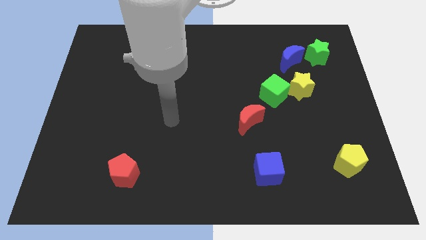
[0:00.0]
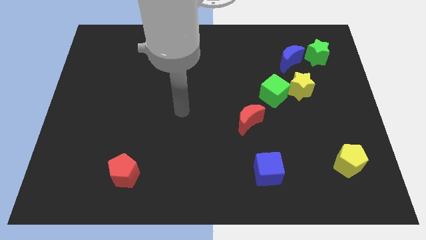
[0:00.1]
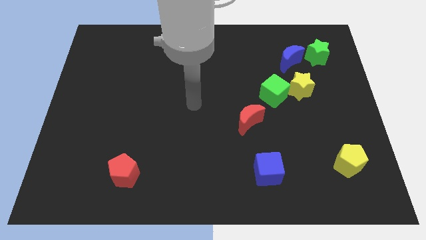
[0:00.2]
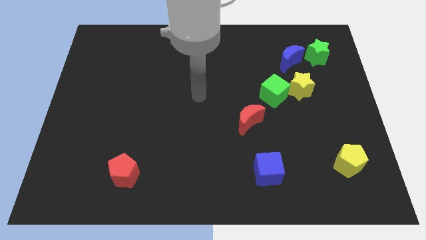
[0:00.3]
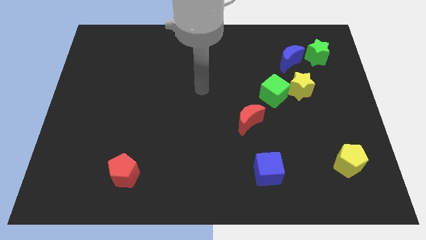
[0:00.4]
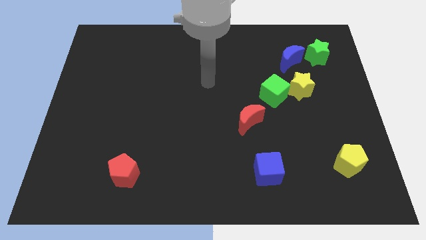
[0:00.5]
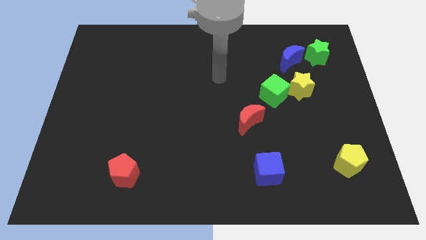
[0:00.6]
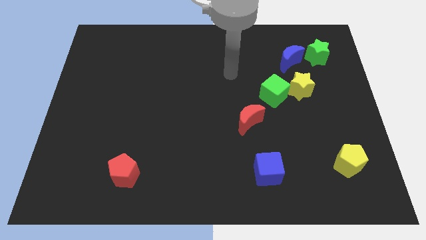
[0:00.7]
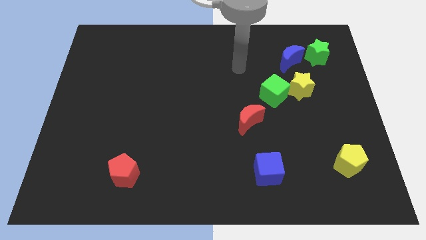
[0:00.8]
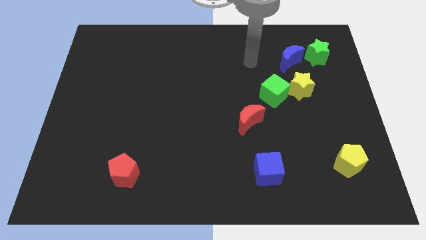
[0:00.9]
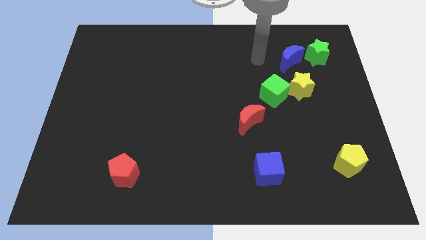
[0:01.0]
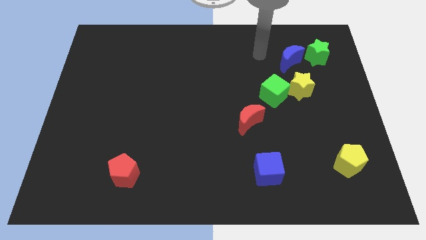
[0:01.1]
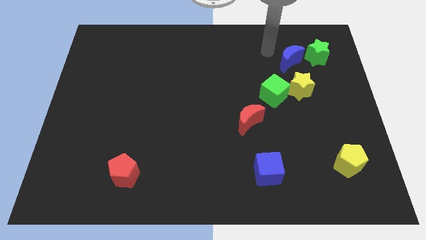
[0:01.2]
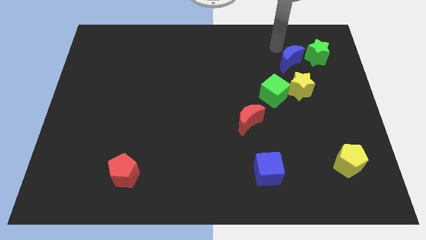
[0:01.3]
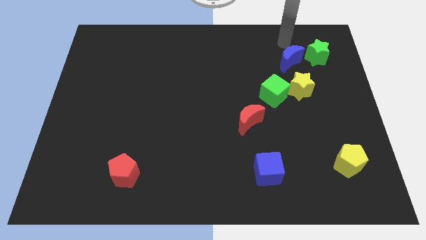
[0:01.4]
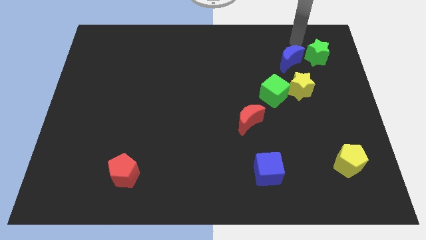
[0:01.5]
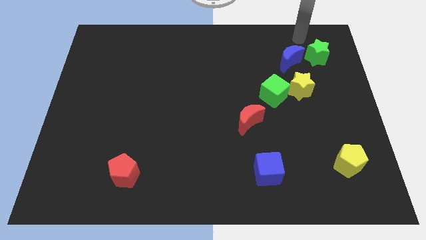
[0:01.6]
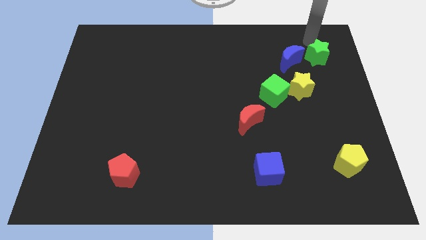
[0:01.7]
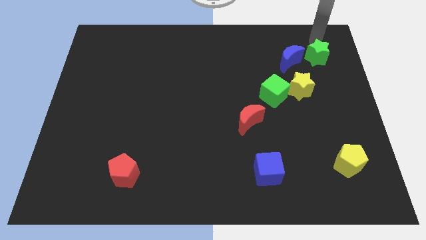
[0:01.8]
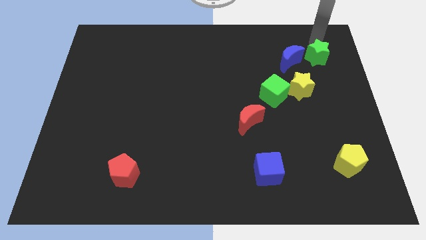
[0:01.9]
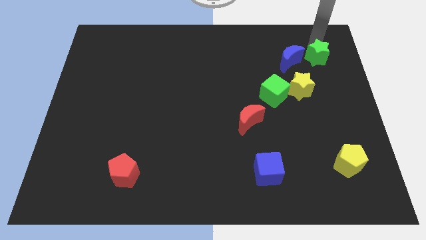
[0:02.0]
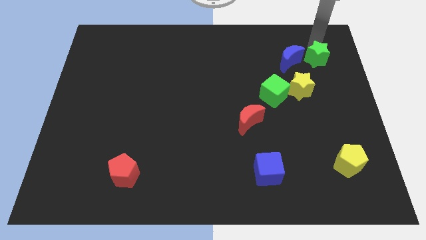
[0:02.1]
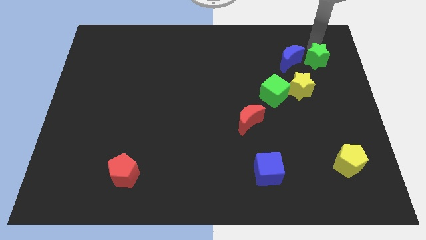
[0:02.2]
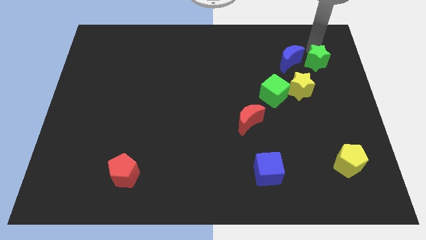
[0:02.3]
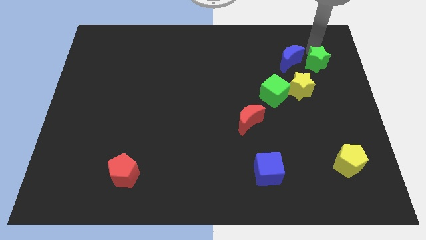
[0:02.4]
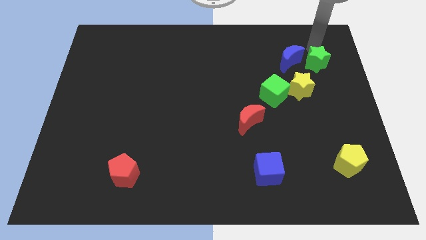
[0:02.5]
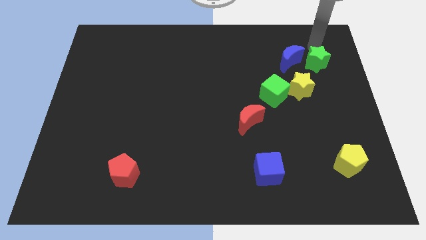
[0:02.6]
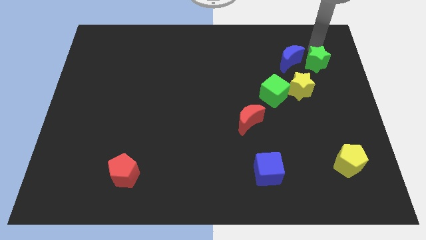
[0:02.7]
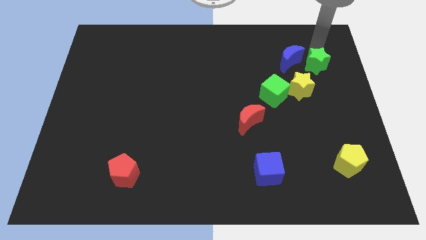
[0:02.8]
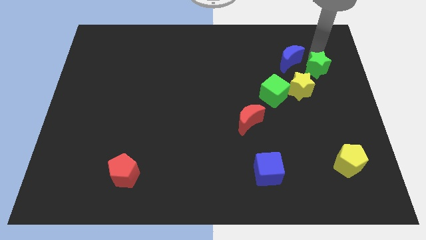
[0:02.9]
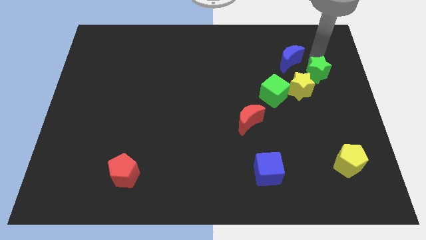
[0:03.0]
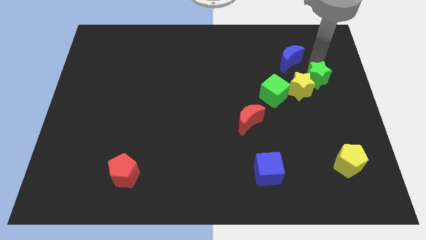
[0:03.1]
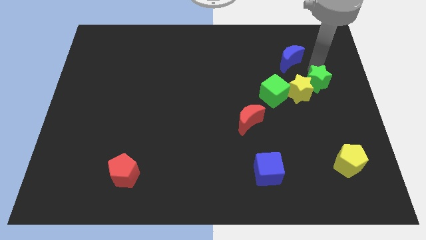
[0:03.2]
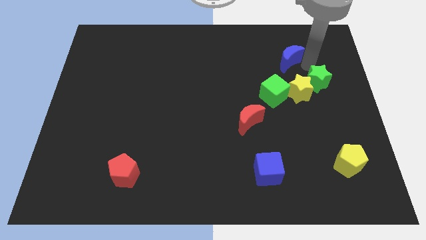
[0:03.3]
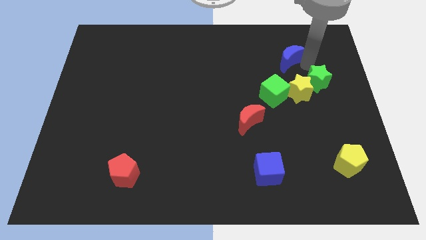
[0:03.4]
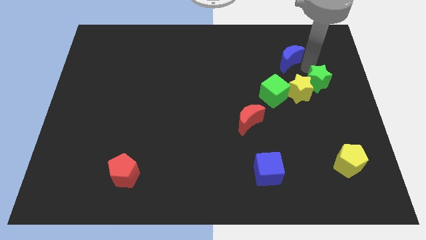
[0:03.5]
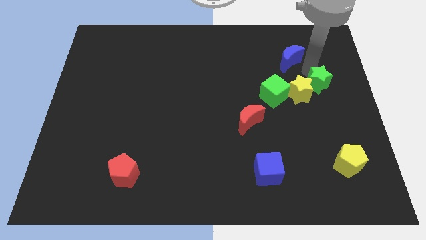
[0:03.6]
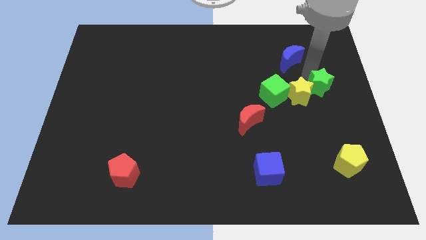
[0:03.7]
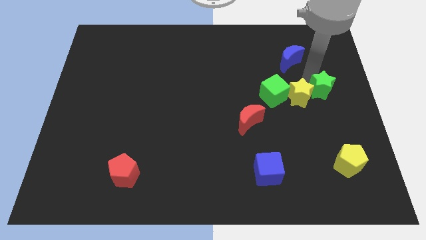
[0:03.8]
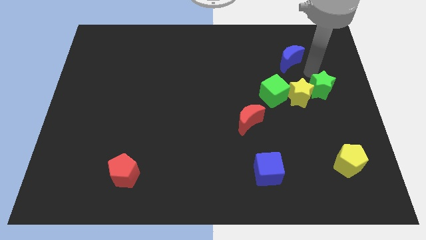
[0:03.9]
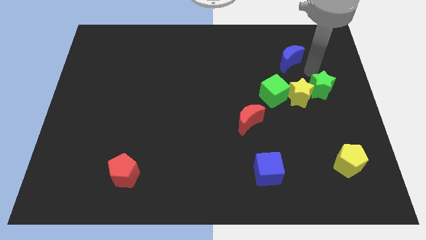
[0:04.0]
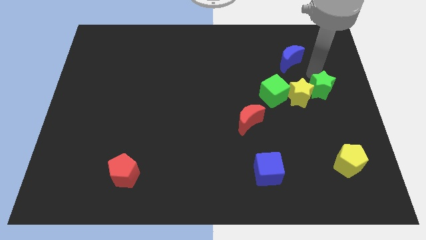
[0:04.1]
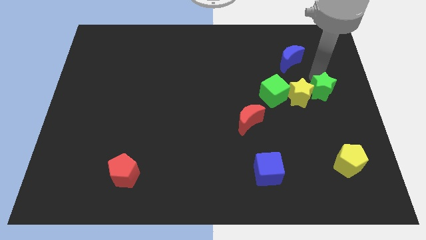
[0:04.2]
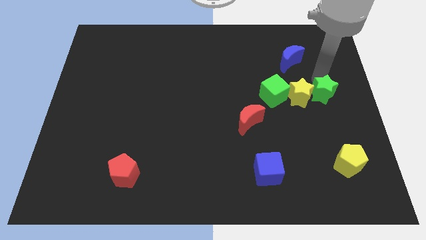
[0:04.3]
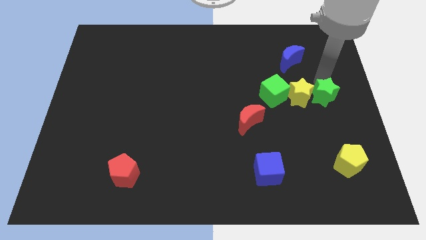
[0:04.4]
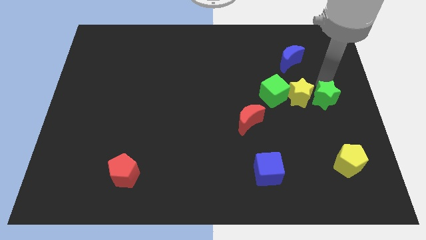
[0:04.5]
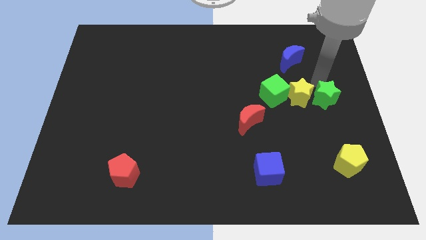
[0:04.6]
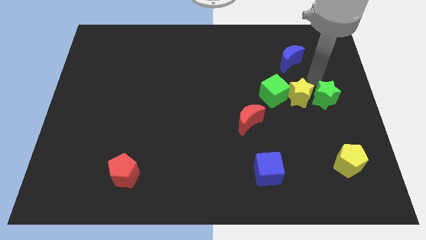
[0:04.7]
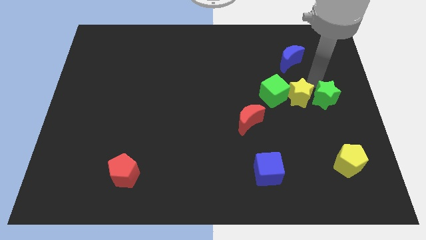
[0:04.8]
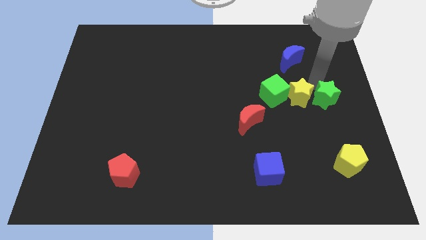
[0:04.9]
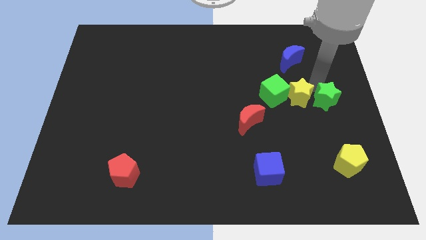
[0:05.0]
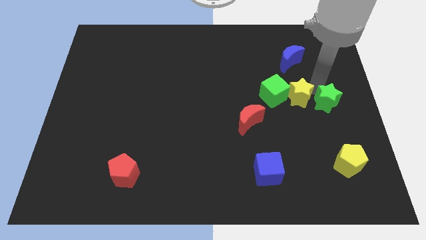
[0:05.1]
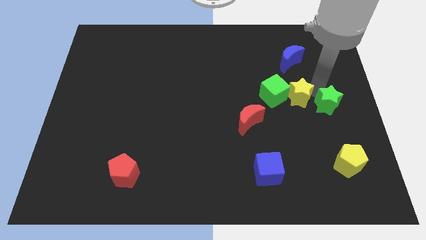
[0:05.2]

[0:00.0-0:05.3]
slide the green star to the top side of the yellow pentagon

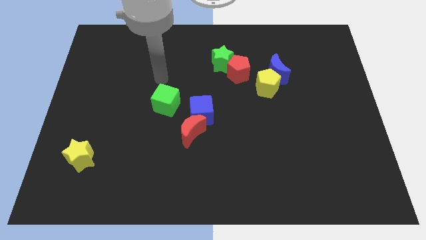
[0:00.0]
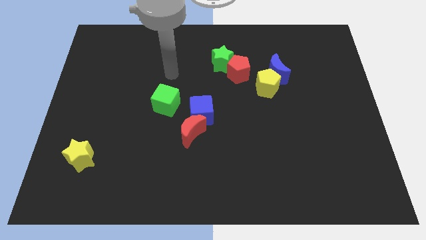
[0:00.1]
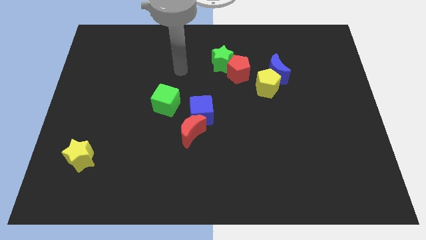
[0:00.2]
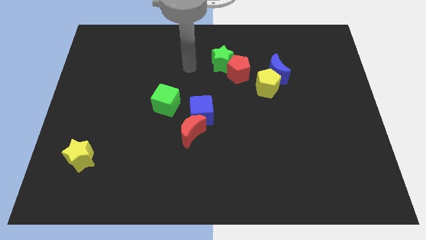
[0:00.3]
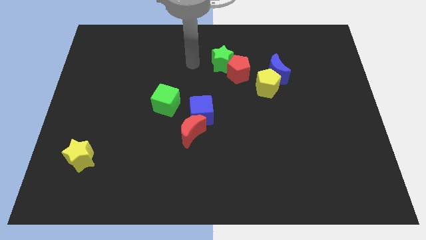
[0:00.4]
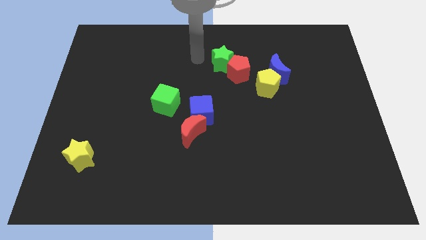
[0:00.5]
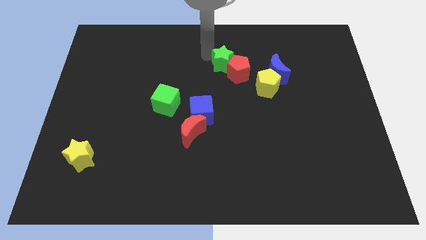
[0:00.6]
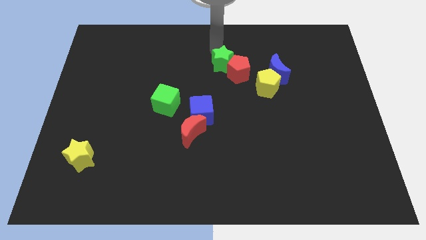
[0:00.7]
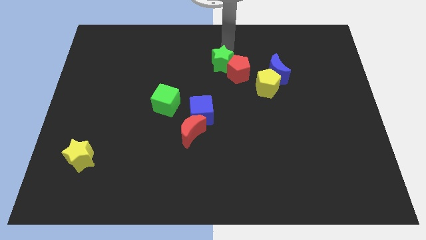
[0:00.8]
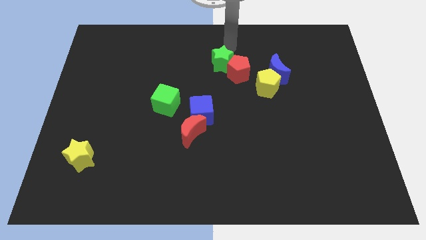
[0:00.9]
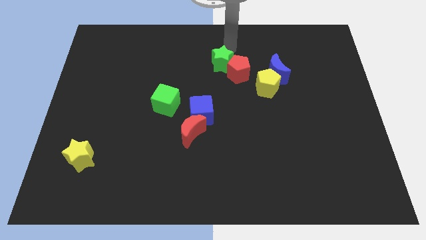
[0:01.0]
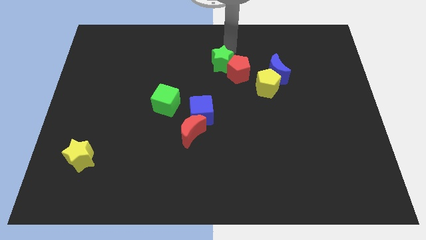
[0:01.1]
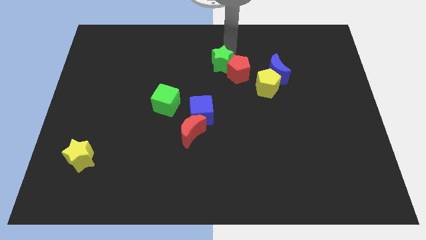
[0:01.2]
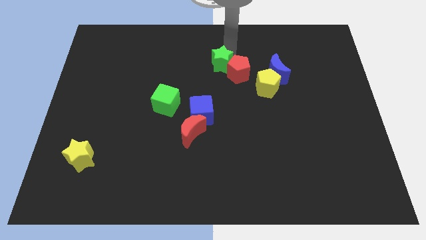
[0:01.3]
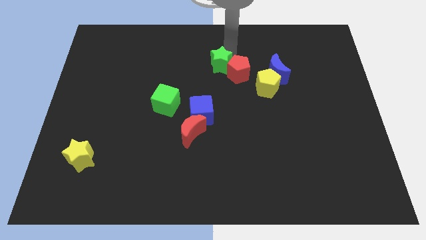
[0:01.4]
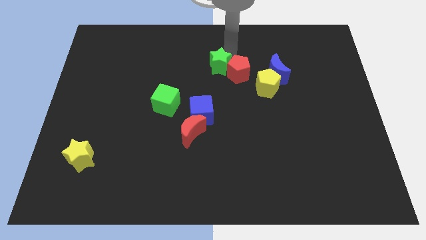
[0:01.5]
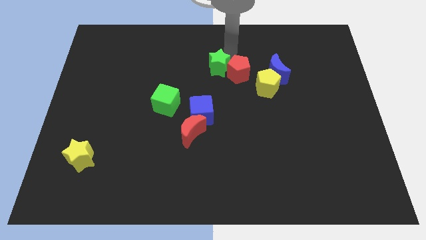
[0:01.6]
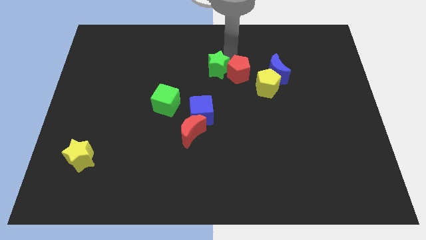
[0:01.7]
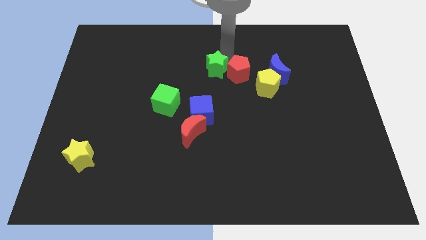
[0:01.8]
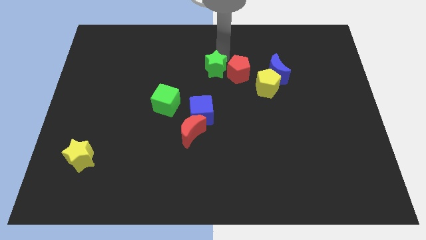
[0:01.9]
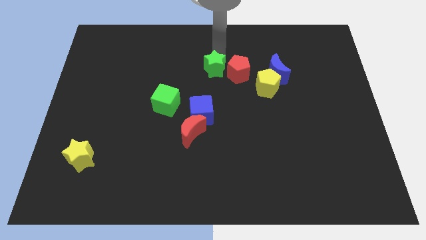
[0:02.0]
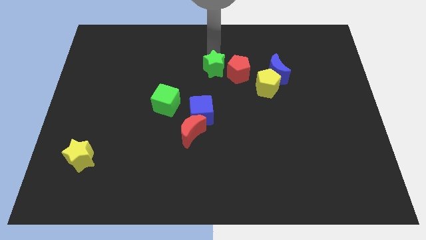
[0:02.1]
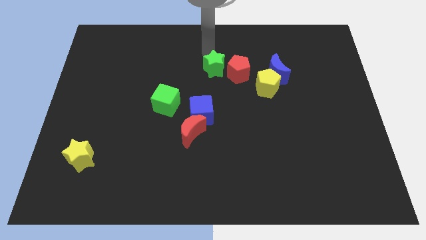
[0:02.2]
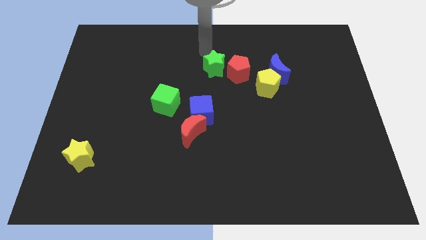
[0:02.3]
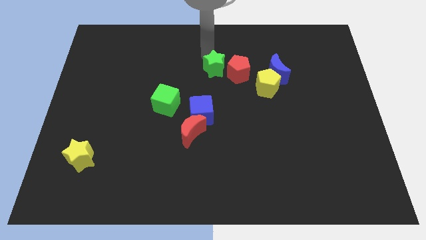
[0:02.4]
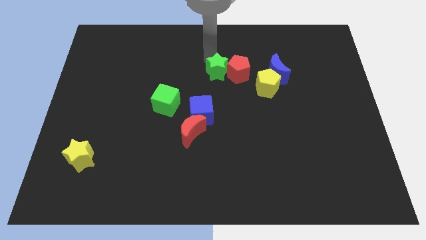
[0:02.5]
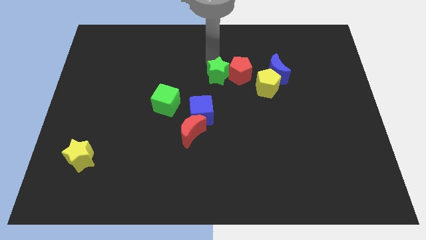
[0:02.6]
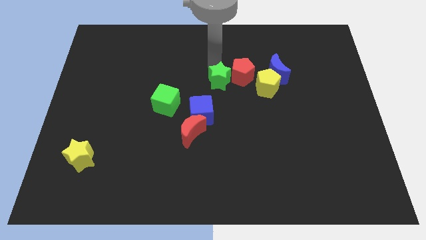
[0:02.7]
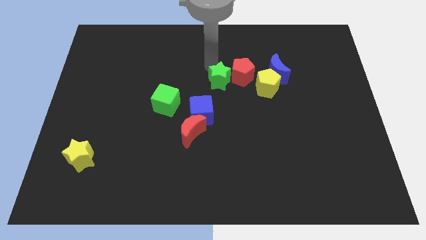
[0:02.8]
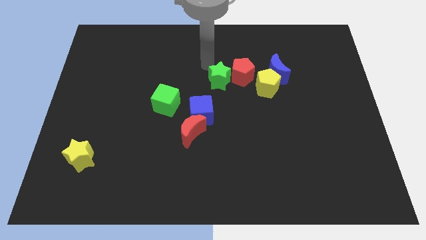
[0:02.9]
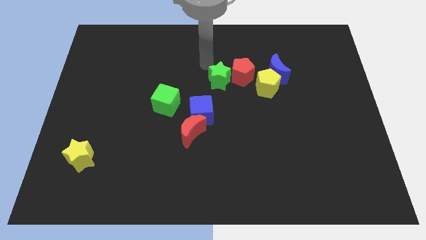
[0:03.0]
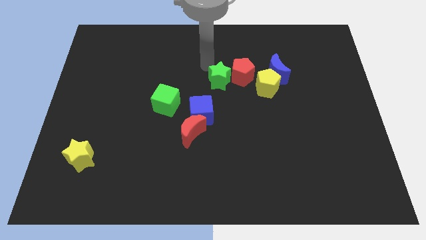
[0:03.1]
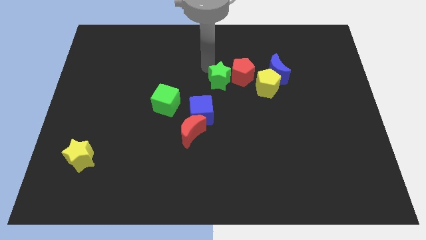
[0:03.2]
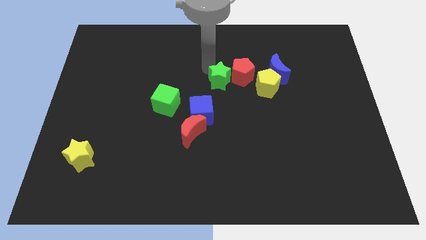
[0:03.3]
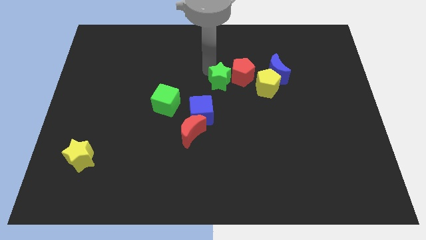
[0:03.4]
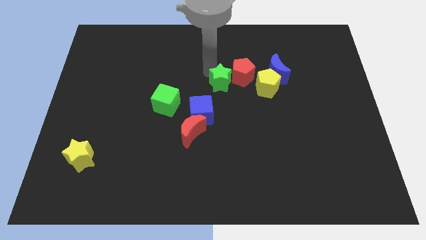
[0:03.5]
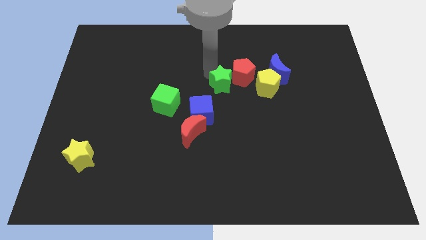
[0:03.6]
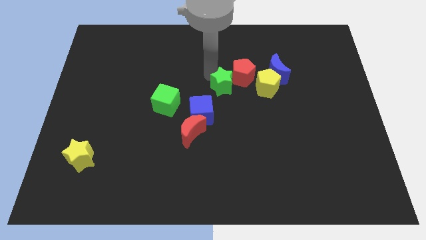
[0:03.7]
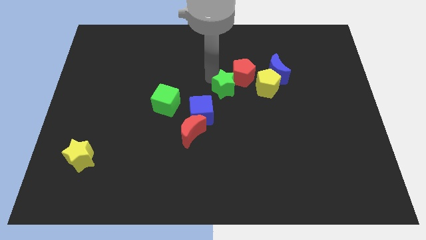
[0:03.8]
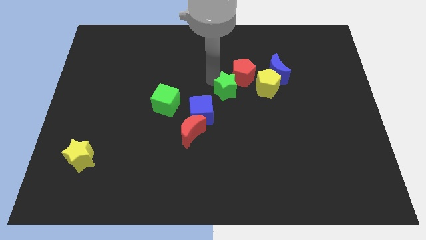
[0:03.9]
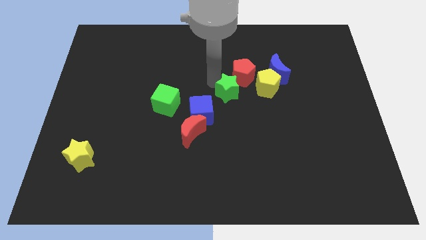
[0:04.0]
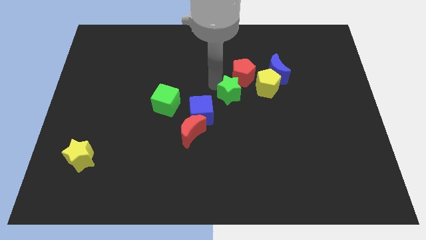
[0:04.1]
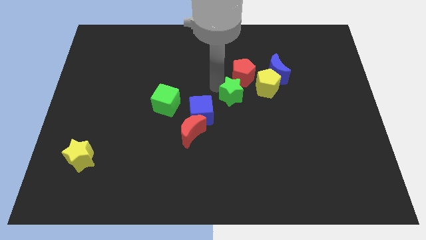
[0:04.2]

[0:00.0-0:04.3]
move the green star to the bottom left side of the yellow pentagon
